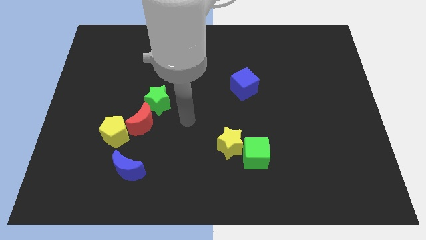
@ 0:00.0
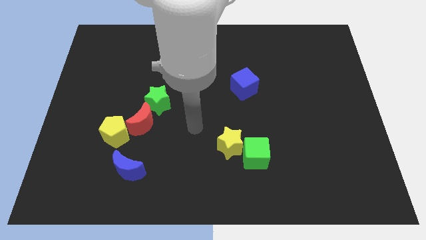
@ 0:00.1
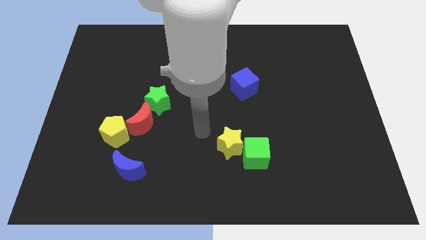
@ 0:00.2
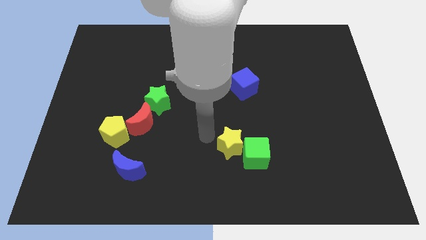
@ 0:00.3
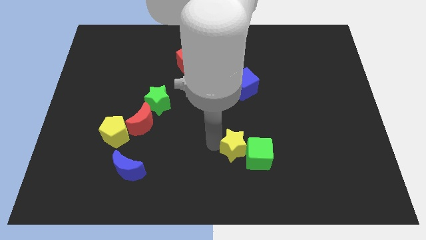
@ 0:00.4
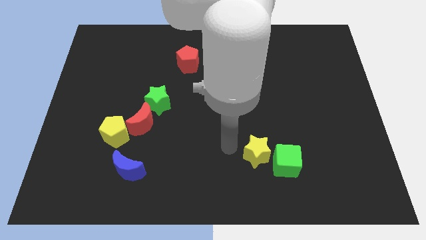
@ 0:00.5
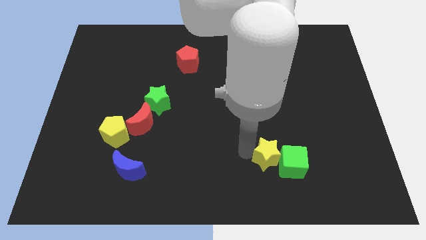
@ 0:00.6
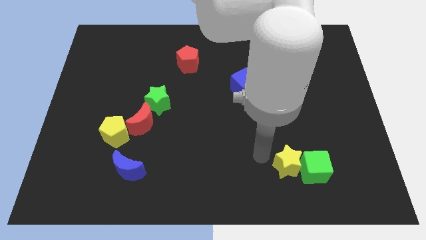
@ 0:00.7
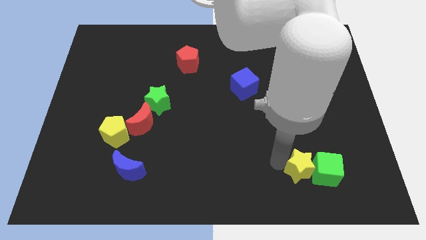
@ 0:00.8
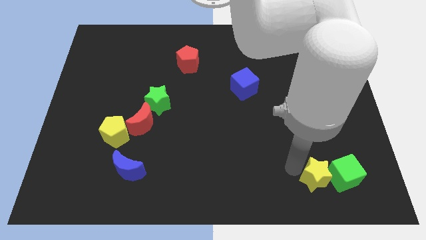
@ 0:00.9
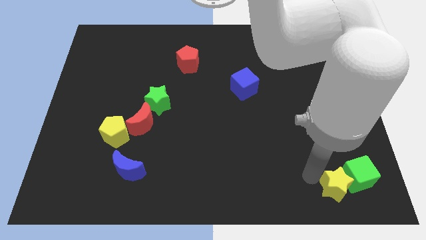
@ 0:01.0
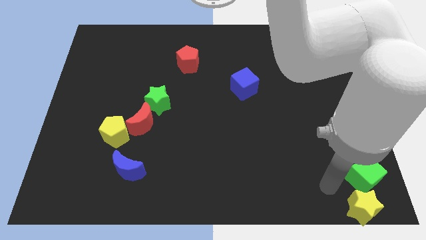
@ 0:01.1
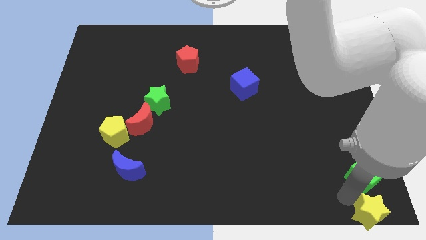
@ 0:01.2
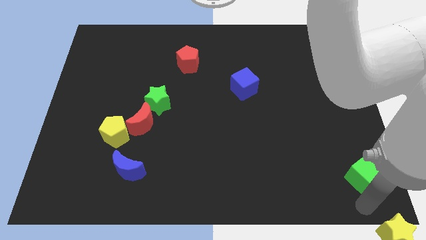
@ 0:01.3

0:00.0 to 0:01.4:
separate the green cube from the yellow star

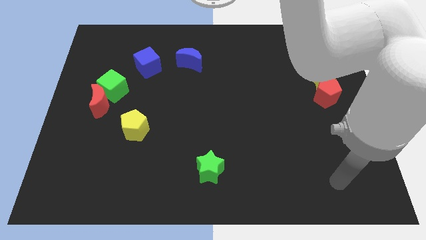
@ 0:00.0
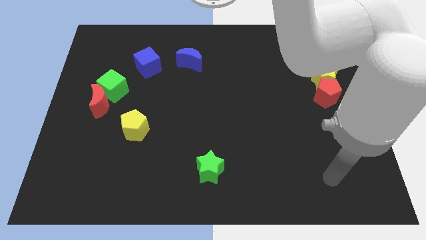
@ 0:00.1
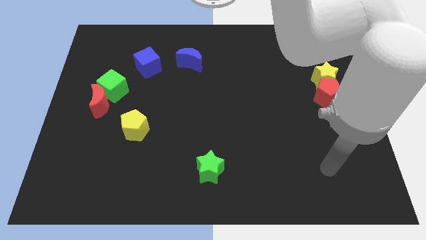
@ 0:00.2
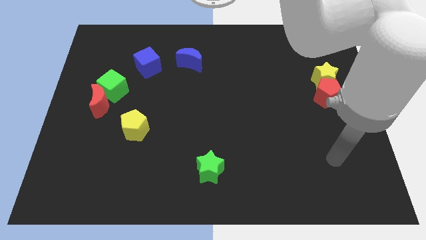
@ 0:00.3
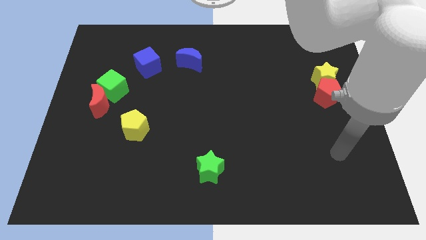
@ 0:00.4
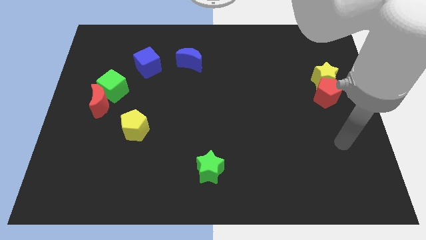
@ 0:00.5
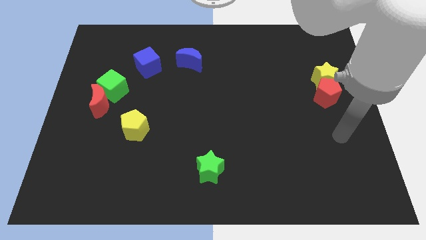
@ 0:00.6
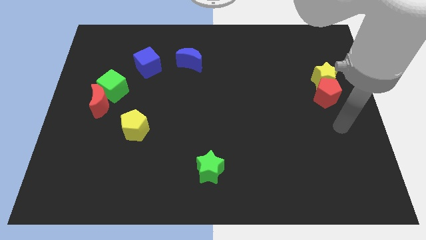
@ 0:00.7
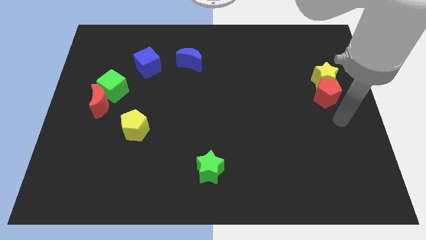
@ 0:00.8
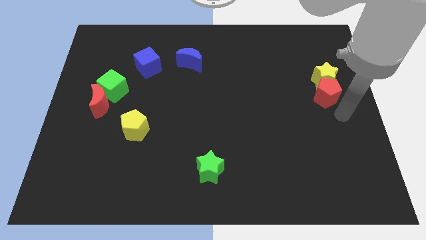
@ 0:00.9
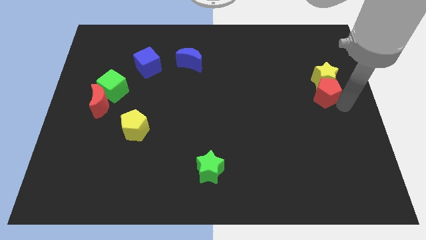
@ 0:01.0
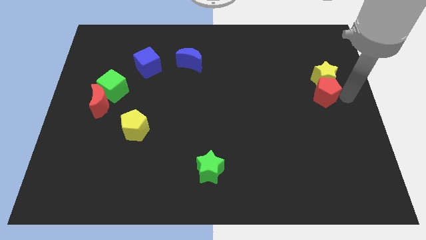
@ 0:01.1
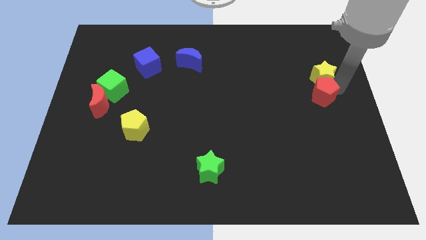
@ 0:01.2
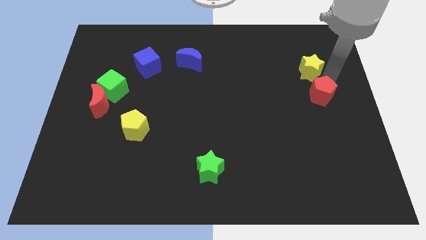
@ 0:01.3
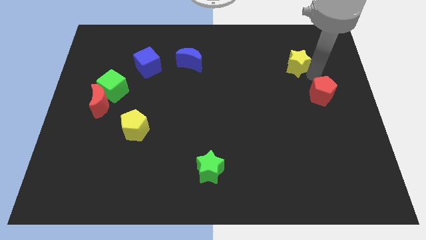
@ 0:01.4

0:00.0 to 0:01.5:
move the red pentagon away from the yellow star

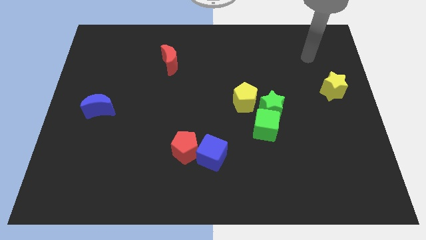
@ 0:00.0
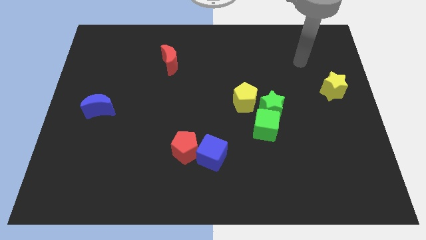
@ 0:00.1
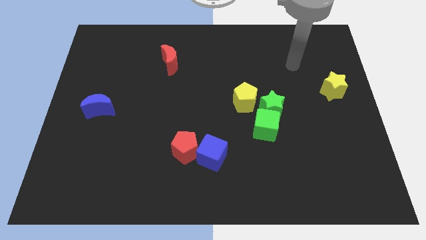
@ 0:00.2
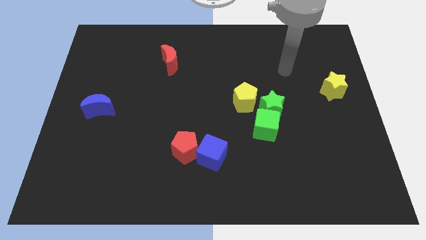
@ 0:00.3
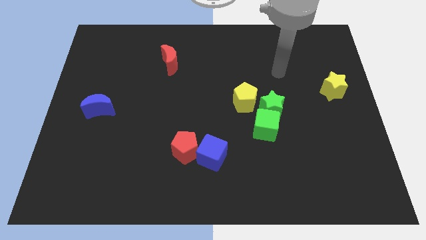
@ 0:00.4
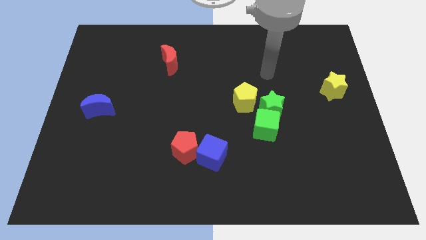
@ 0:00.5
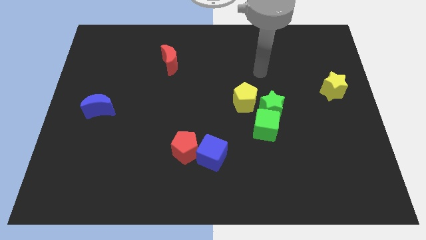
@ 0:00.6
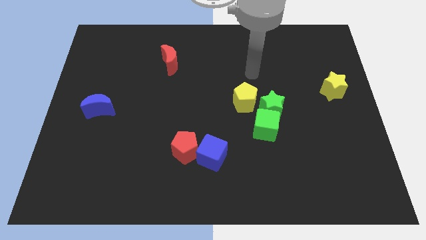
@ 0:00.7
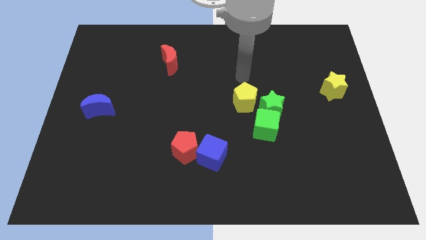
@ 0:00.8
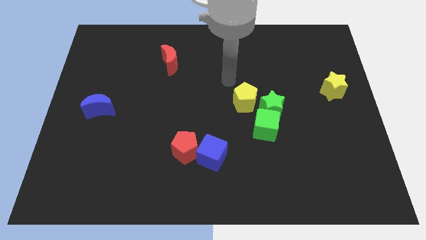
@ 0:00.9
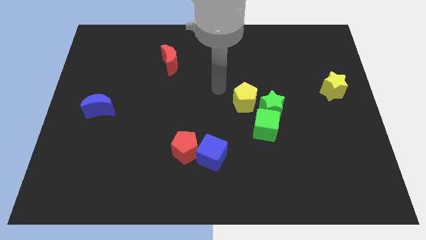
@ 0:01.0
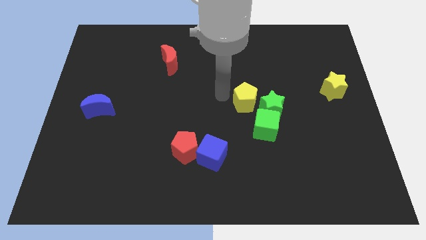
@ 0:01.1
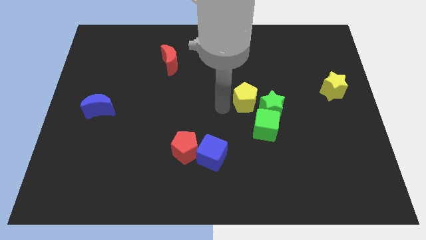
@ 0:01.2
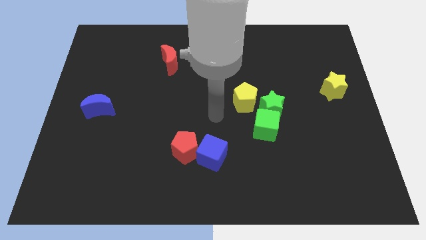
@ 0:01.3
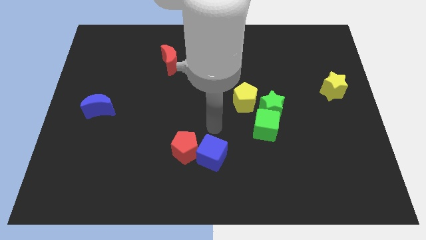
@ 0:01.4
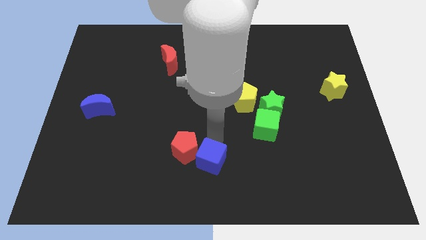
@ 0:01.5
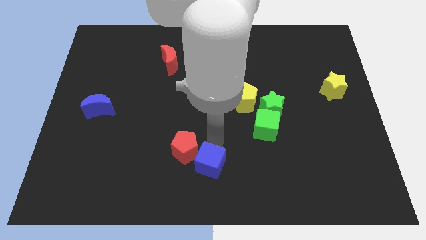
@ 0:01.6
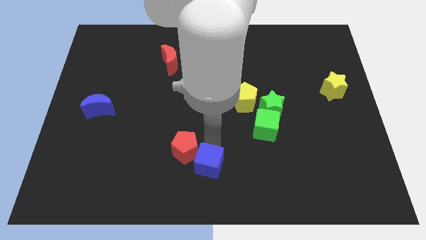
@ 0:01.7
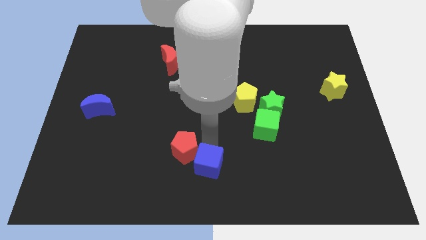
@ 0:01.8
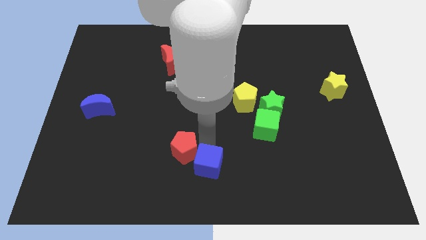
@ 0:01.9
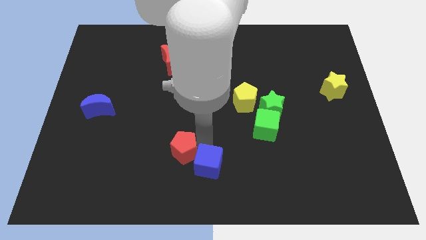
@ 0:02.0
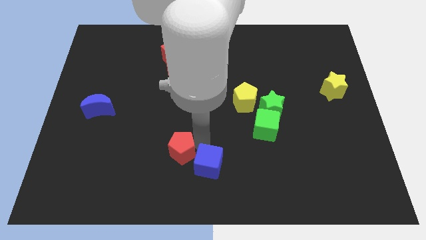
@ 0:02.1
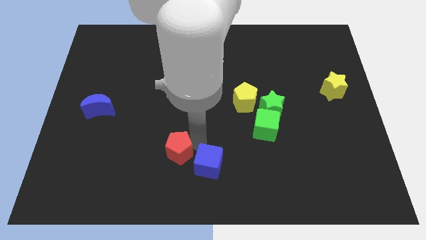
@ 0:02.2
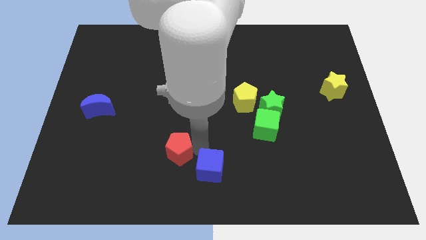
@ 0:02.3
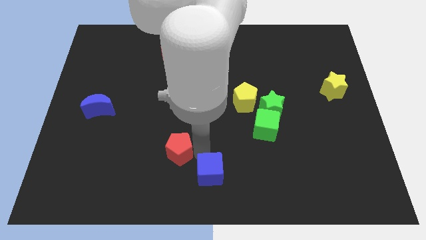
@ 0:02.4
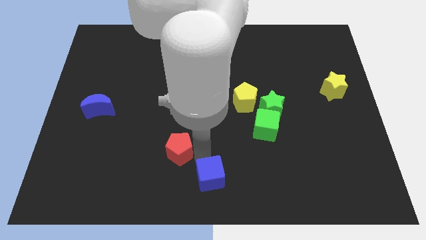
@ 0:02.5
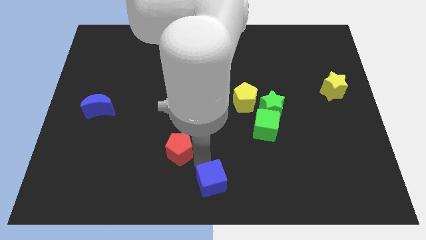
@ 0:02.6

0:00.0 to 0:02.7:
move the red pentagon away from the blue cube

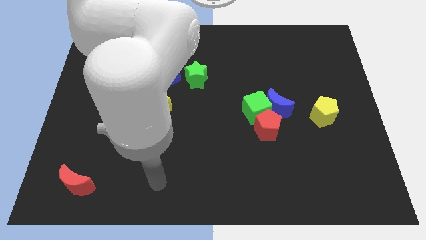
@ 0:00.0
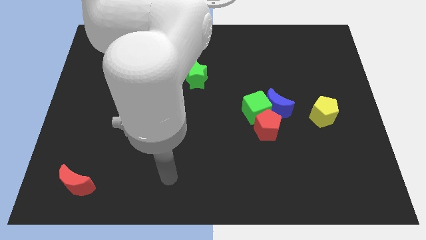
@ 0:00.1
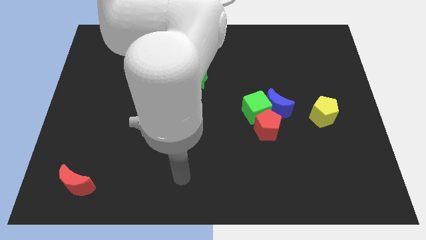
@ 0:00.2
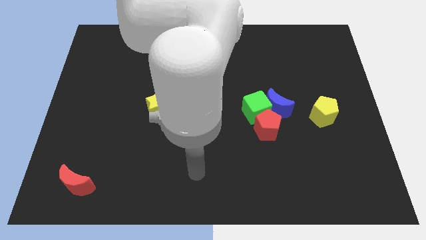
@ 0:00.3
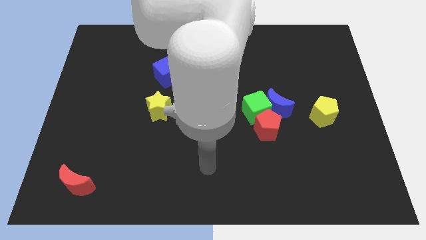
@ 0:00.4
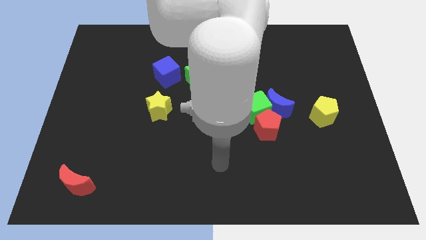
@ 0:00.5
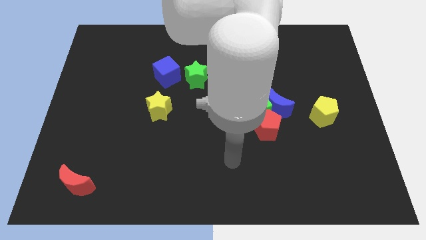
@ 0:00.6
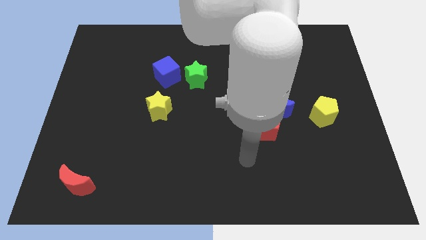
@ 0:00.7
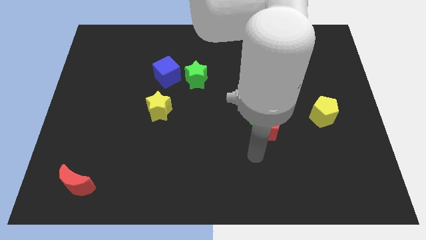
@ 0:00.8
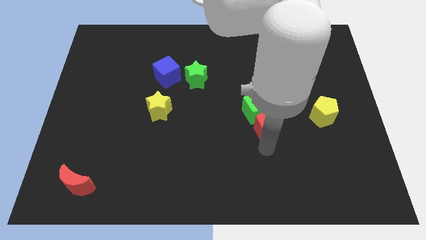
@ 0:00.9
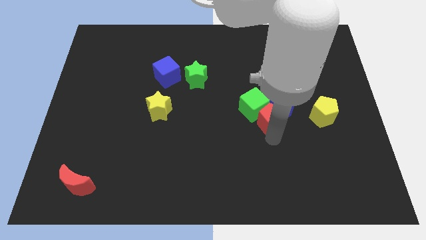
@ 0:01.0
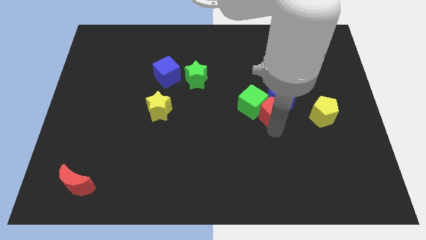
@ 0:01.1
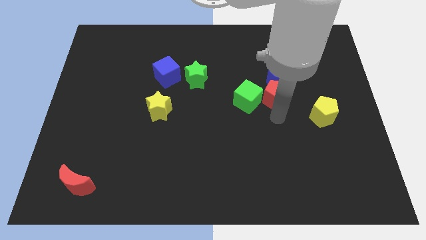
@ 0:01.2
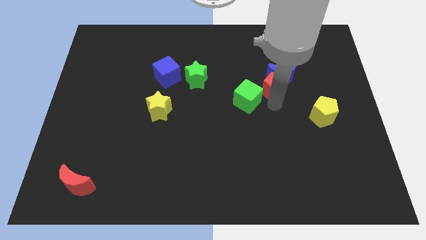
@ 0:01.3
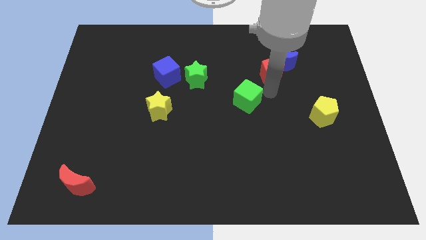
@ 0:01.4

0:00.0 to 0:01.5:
move the green cube away from the blue moon and red pentagon

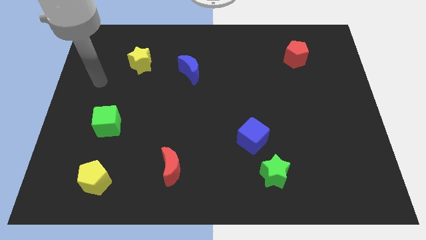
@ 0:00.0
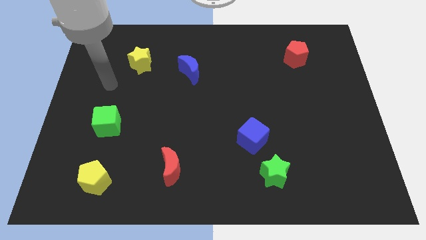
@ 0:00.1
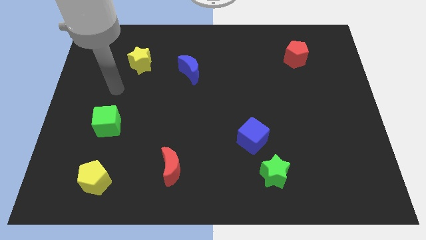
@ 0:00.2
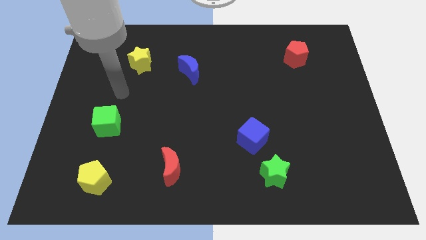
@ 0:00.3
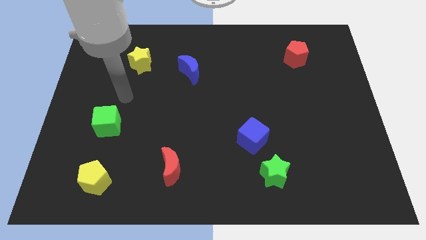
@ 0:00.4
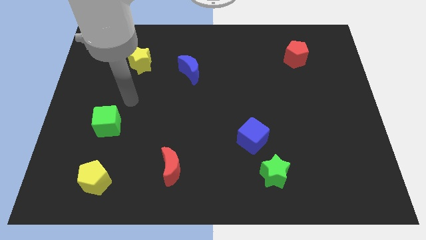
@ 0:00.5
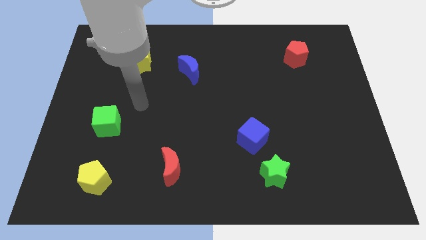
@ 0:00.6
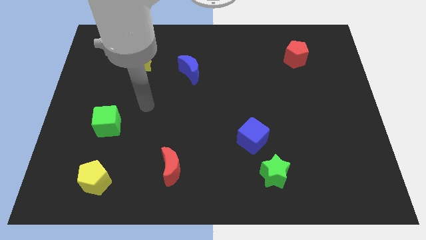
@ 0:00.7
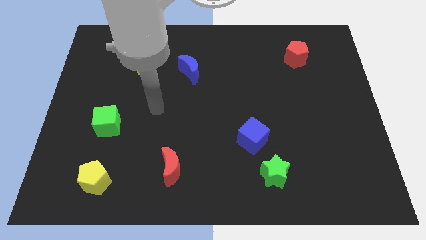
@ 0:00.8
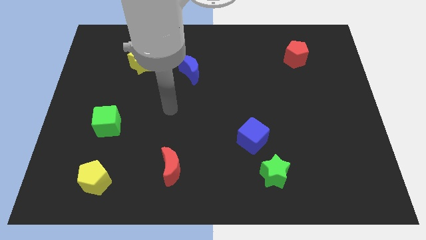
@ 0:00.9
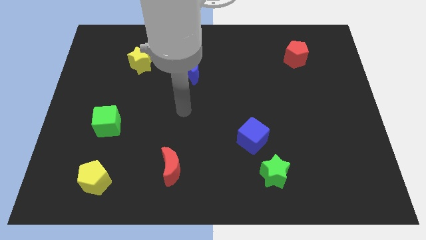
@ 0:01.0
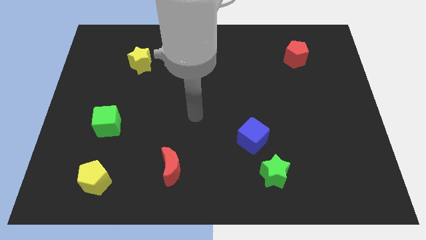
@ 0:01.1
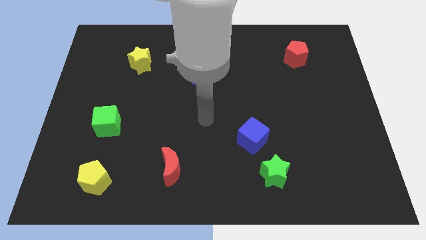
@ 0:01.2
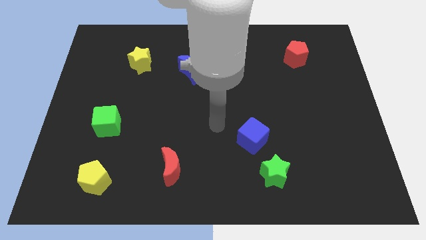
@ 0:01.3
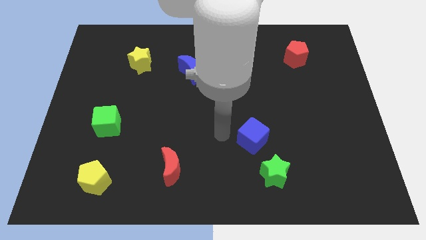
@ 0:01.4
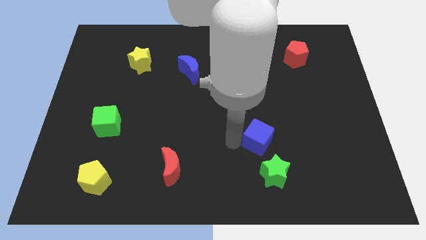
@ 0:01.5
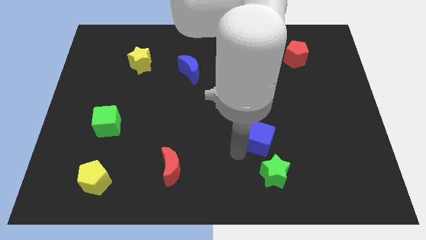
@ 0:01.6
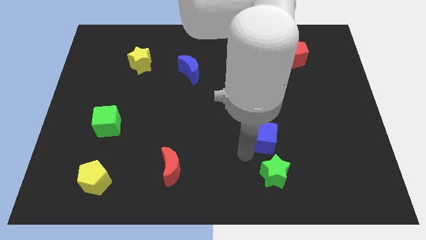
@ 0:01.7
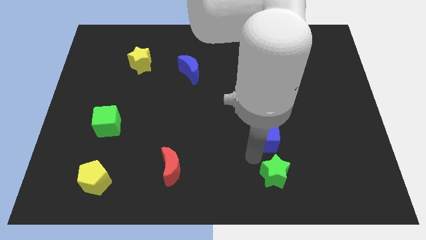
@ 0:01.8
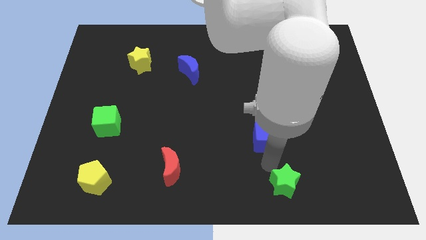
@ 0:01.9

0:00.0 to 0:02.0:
pull the blue cube apart from the green star
